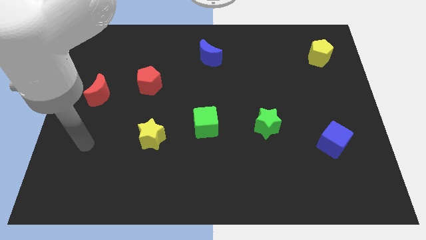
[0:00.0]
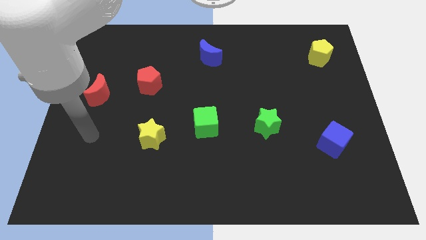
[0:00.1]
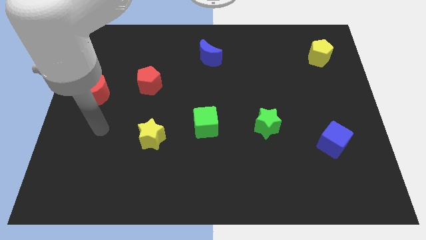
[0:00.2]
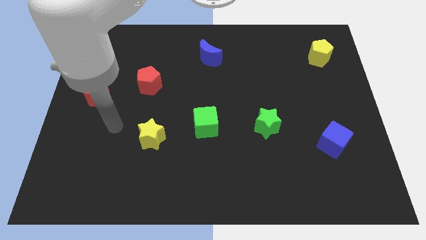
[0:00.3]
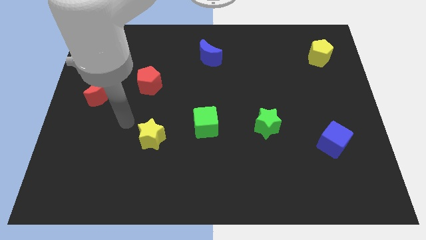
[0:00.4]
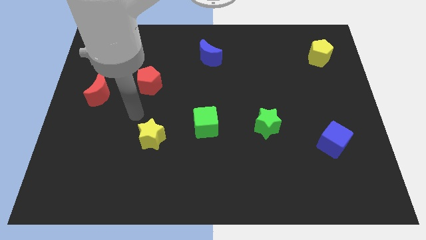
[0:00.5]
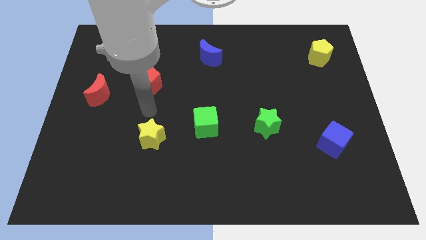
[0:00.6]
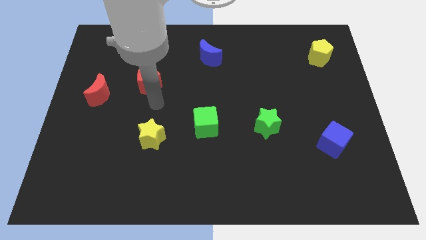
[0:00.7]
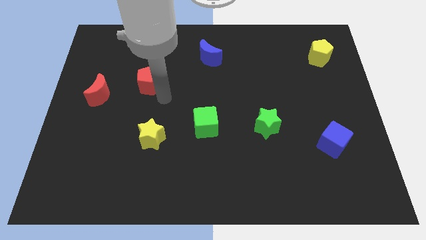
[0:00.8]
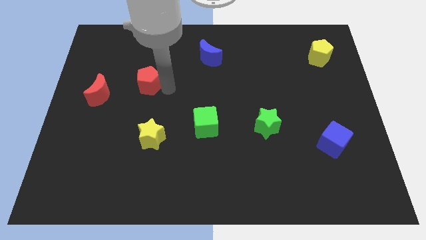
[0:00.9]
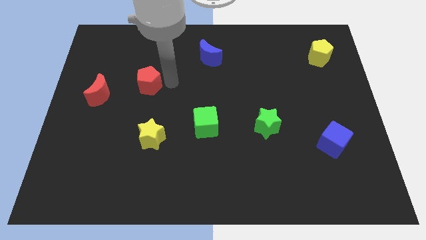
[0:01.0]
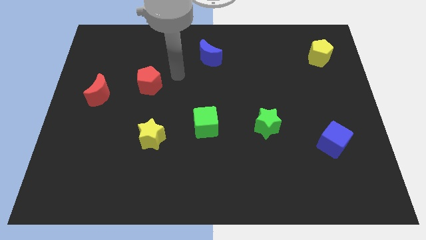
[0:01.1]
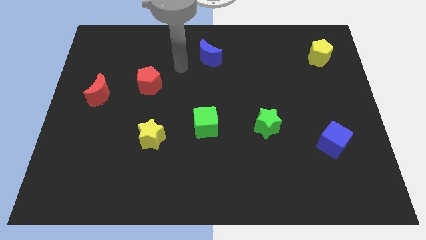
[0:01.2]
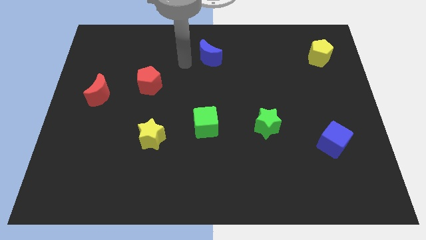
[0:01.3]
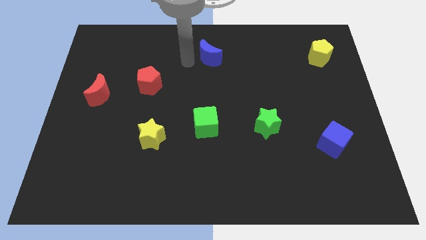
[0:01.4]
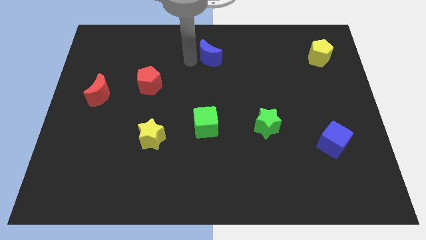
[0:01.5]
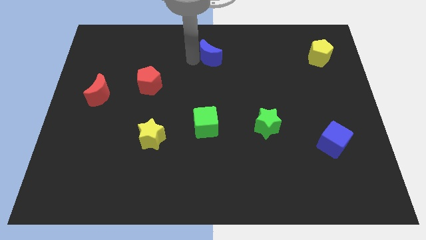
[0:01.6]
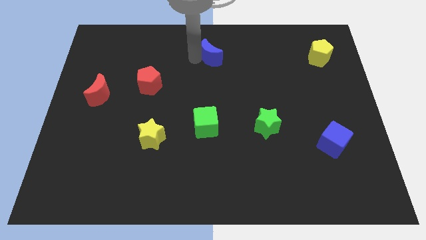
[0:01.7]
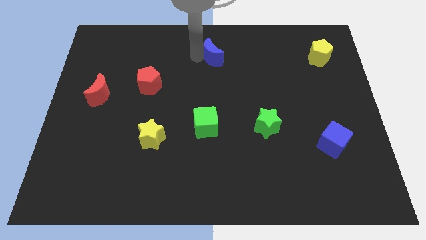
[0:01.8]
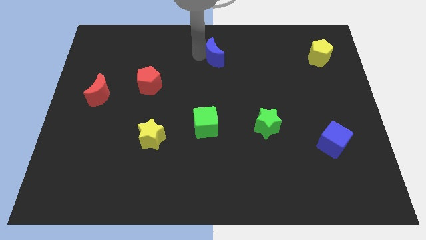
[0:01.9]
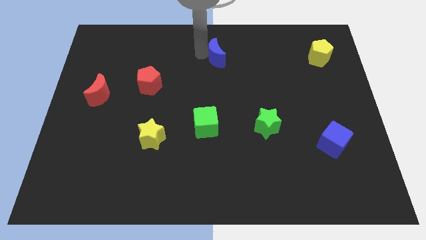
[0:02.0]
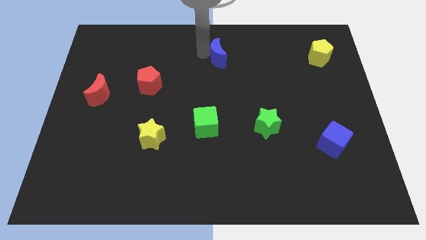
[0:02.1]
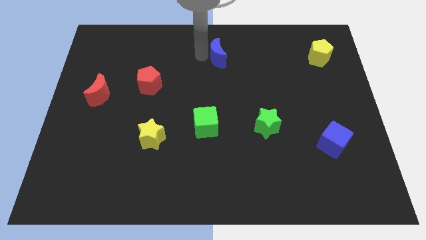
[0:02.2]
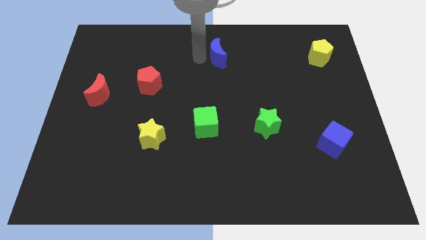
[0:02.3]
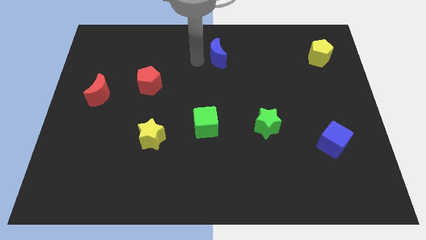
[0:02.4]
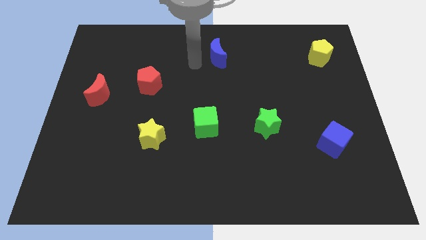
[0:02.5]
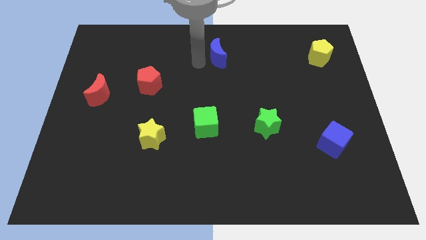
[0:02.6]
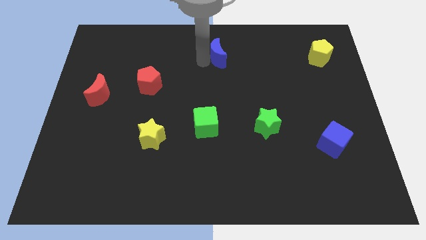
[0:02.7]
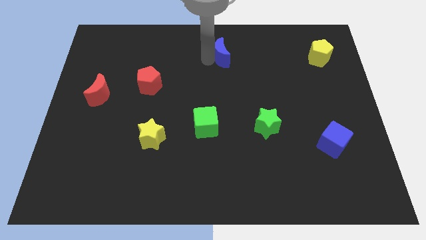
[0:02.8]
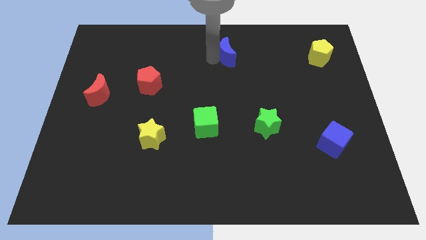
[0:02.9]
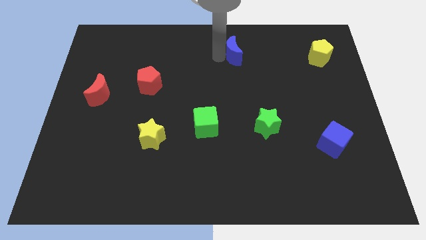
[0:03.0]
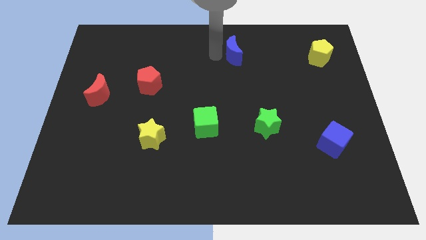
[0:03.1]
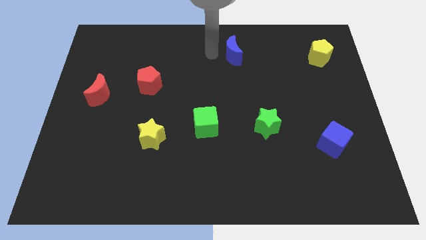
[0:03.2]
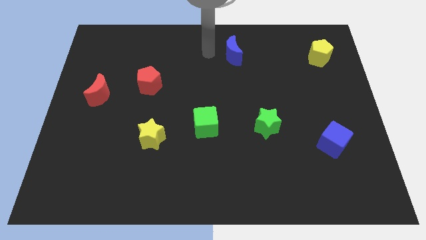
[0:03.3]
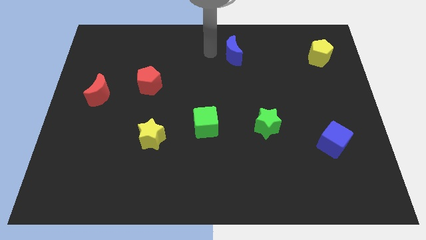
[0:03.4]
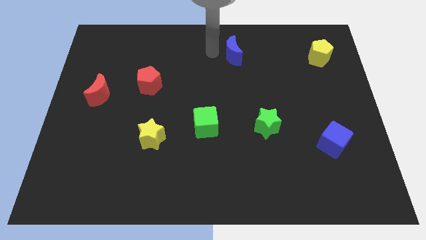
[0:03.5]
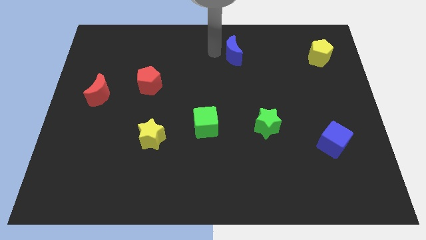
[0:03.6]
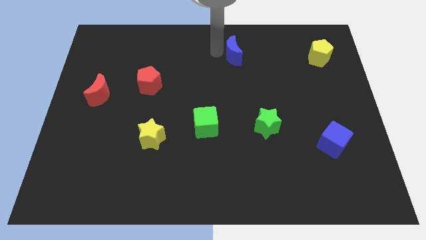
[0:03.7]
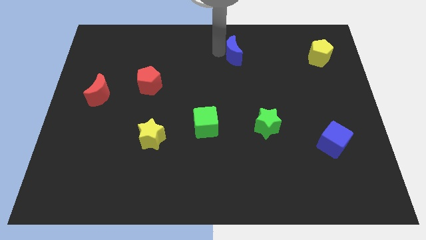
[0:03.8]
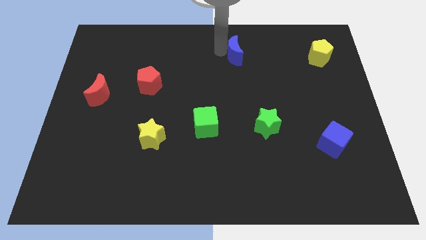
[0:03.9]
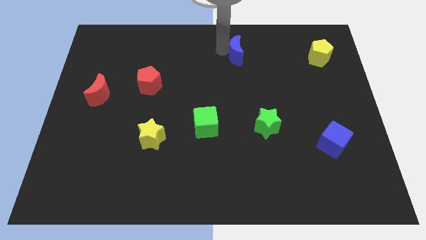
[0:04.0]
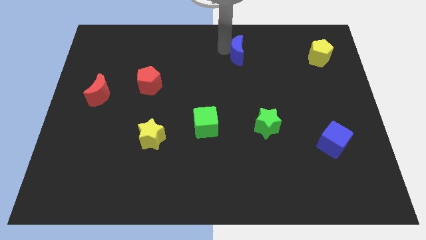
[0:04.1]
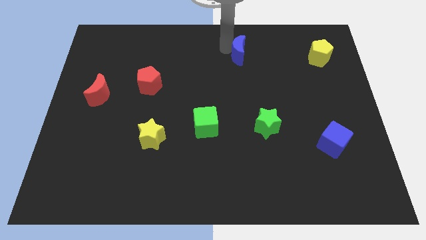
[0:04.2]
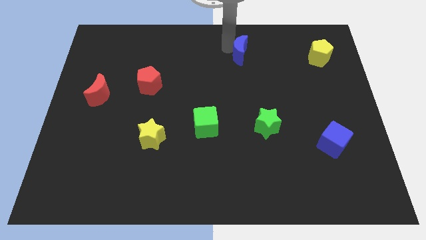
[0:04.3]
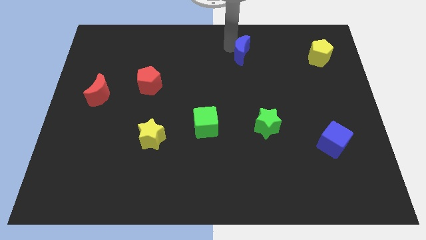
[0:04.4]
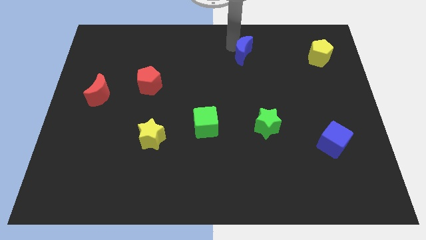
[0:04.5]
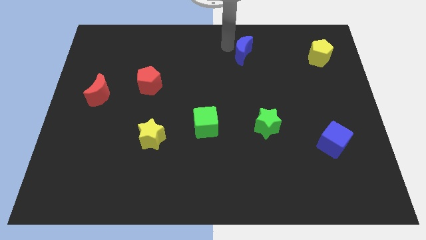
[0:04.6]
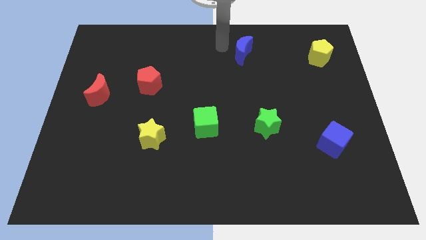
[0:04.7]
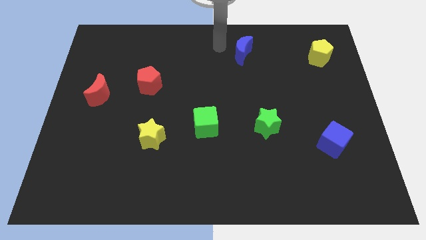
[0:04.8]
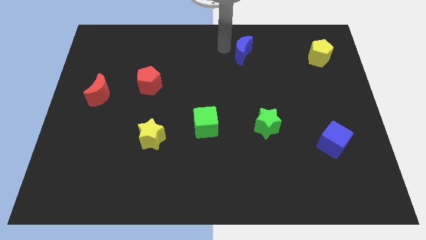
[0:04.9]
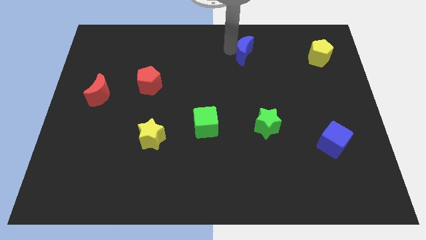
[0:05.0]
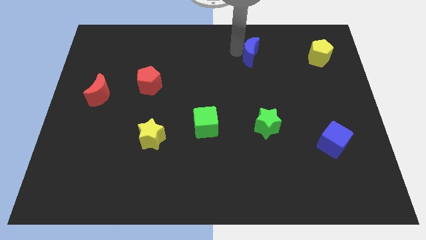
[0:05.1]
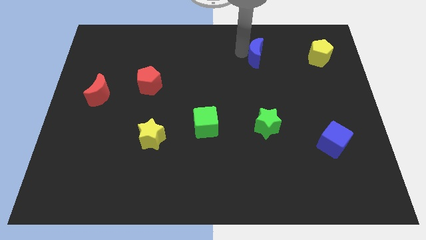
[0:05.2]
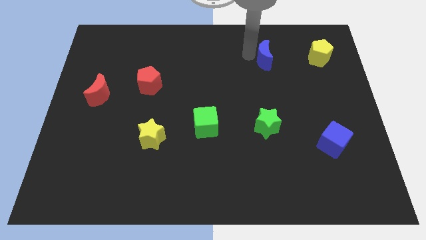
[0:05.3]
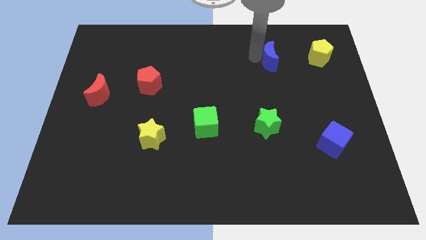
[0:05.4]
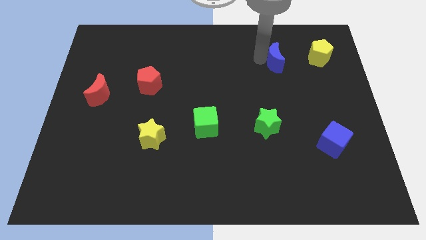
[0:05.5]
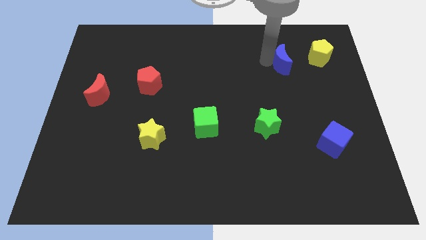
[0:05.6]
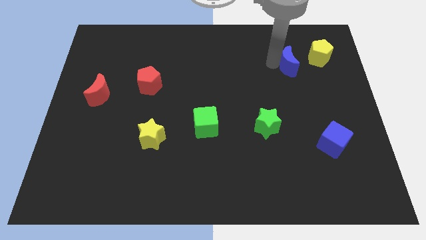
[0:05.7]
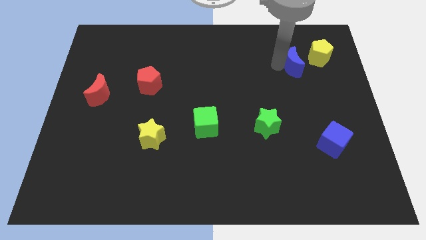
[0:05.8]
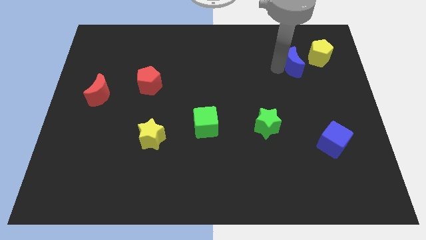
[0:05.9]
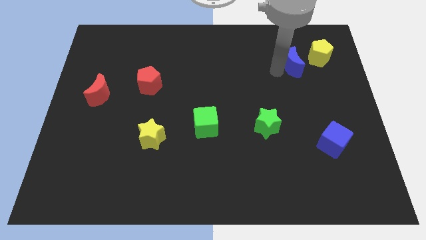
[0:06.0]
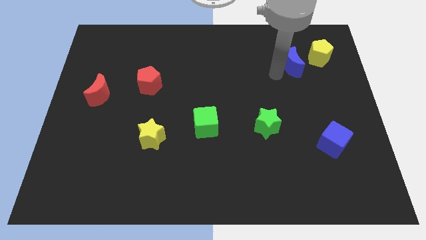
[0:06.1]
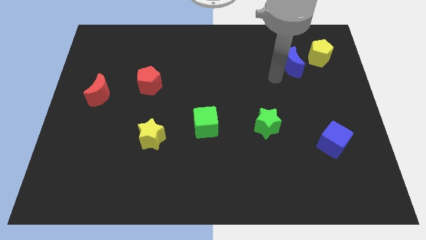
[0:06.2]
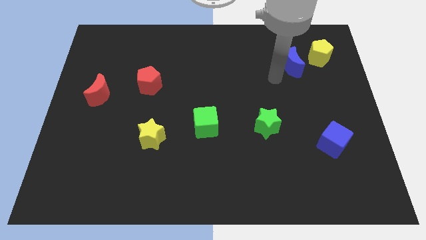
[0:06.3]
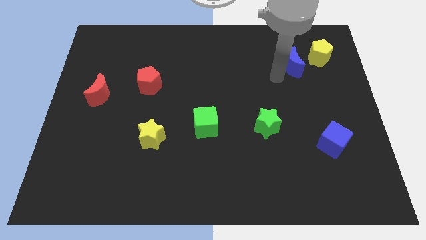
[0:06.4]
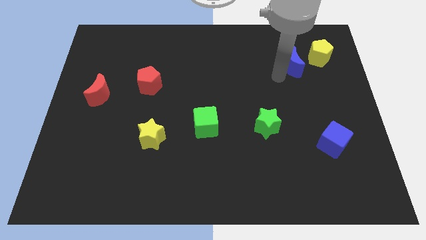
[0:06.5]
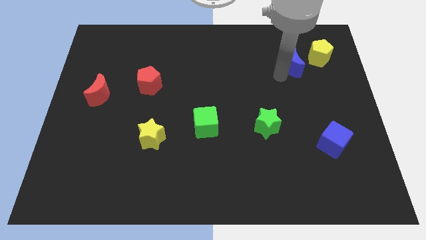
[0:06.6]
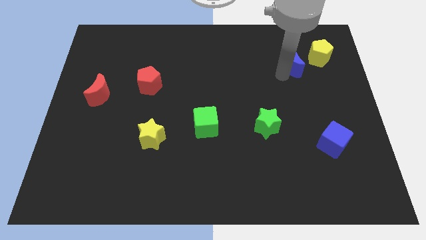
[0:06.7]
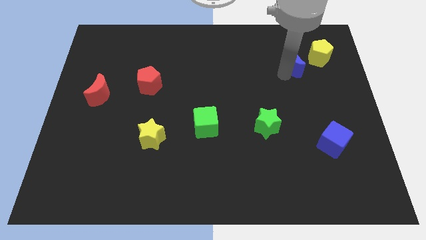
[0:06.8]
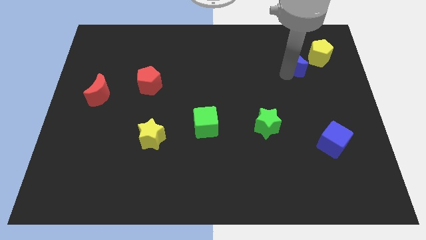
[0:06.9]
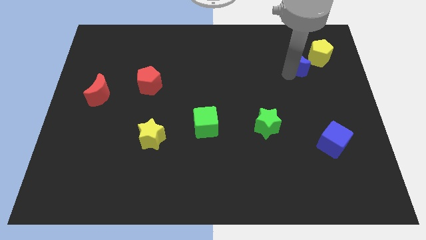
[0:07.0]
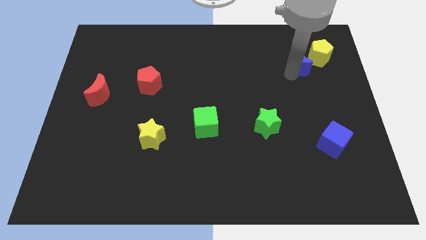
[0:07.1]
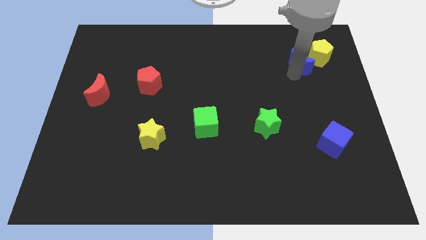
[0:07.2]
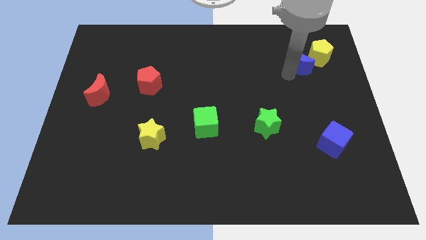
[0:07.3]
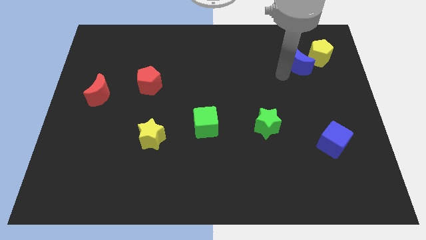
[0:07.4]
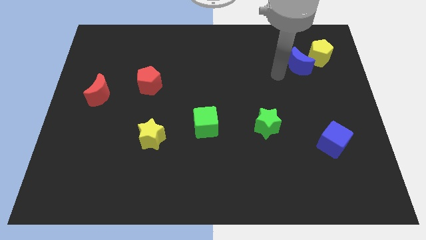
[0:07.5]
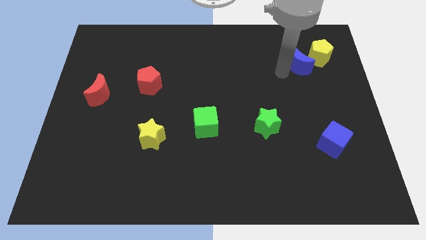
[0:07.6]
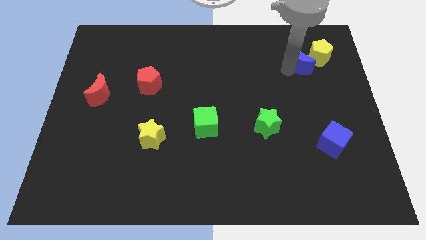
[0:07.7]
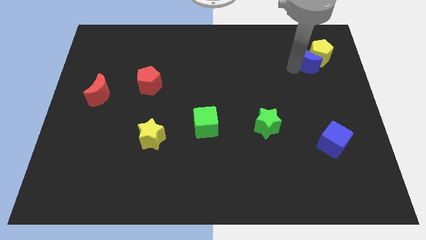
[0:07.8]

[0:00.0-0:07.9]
move the blue moon close to the yellow pentagon
